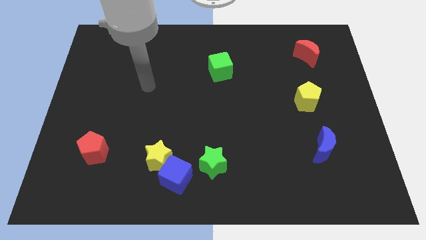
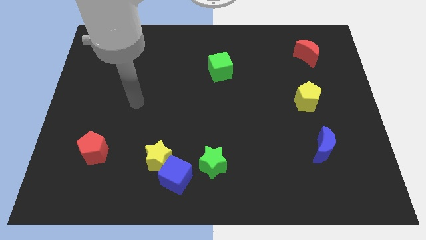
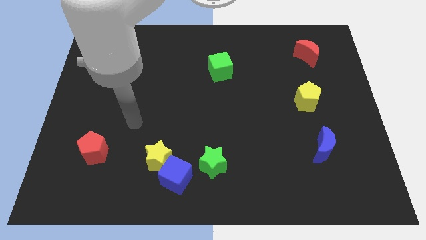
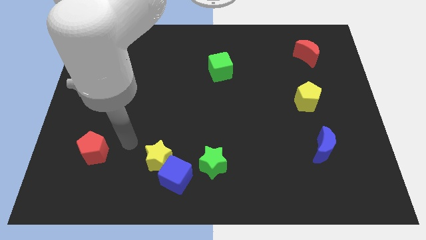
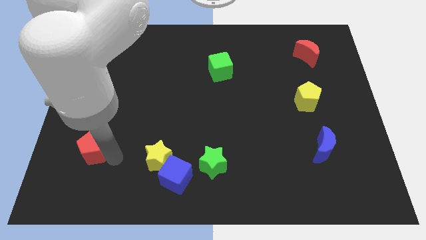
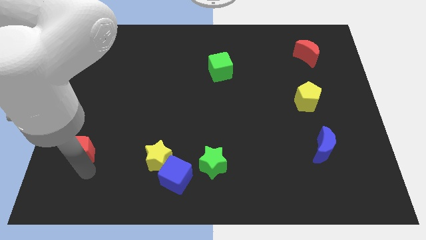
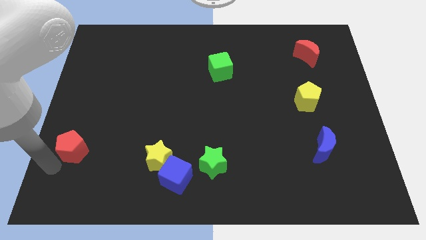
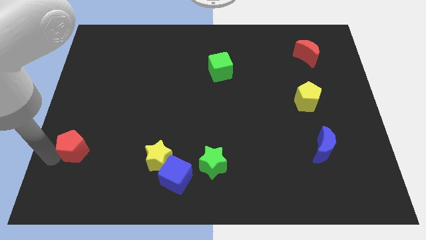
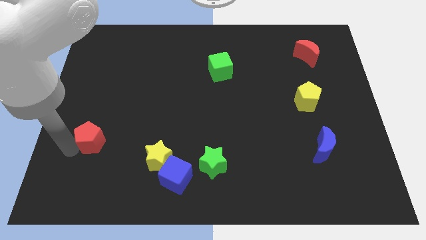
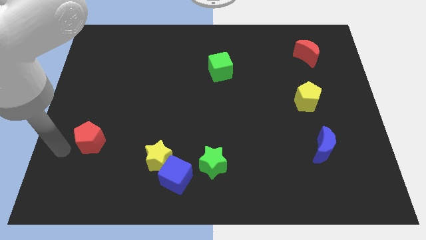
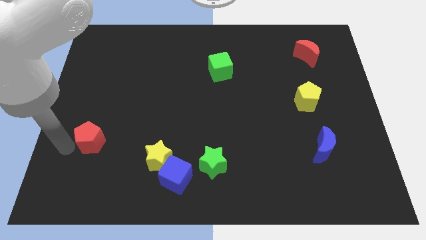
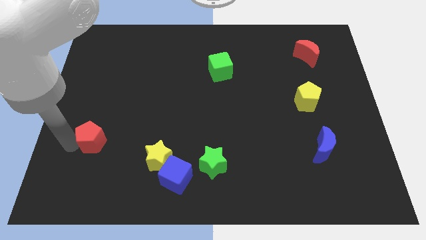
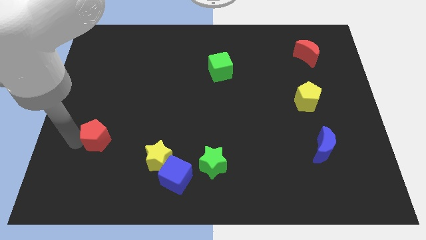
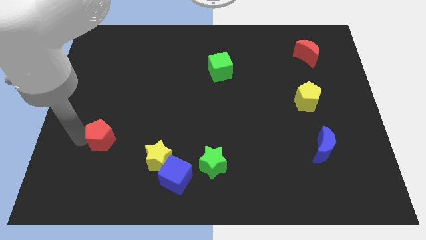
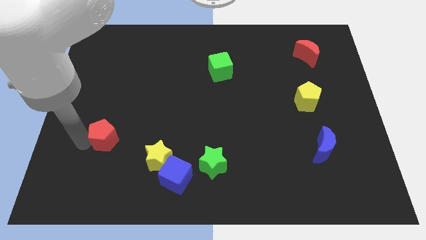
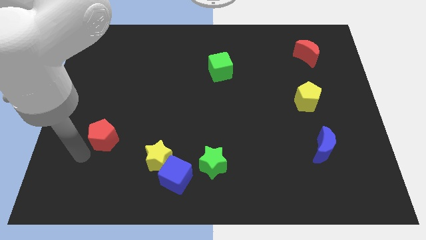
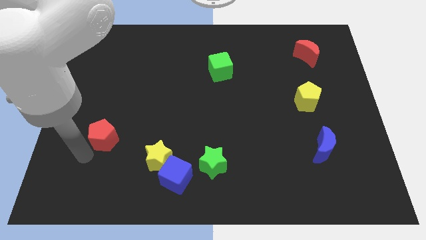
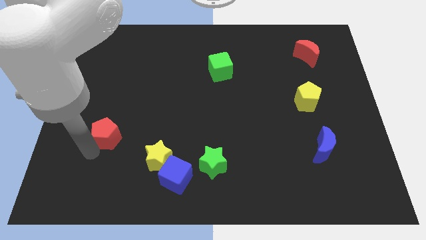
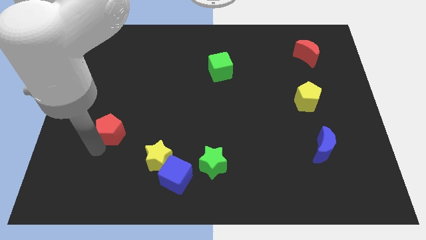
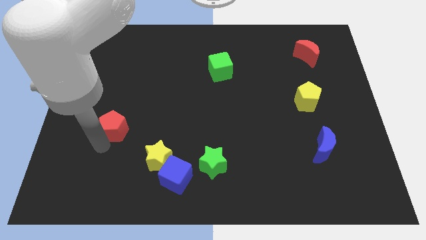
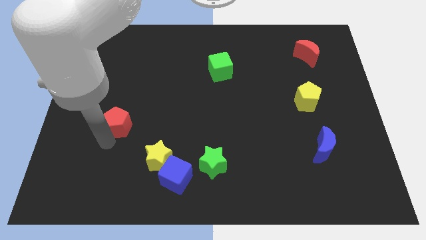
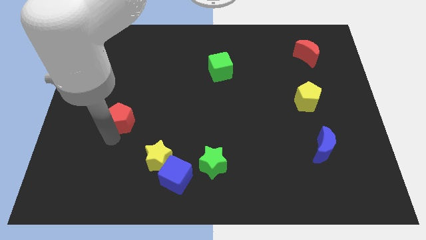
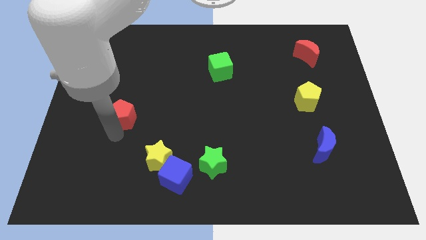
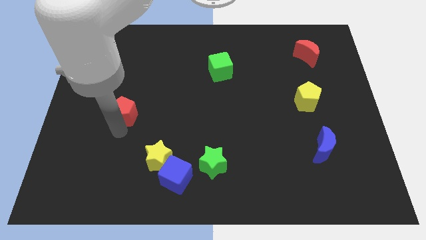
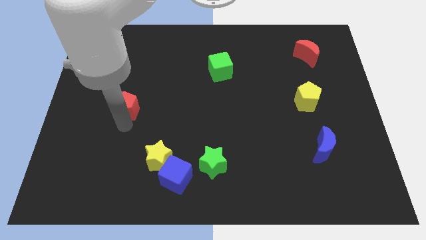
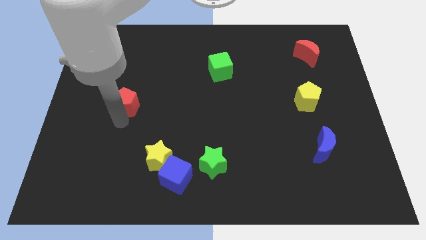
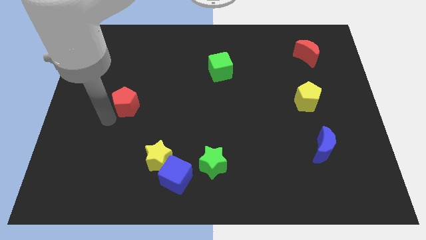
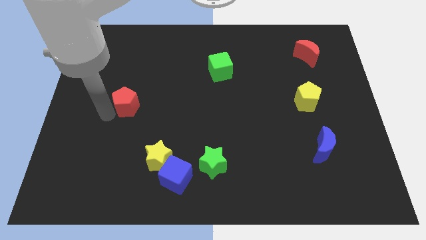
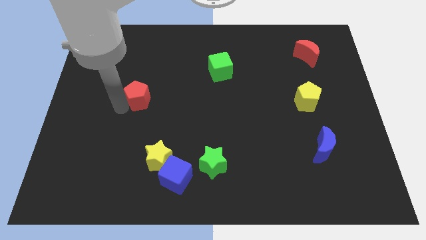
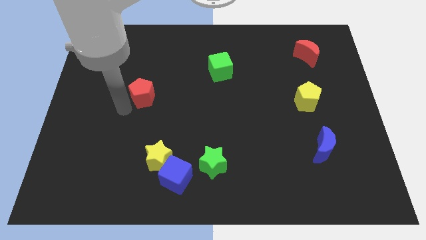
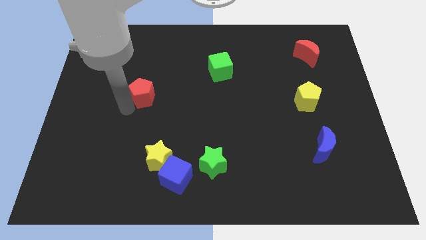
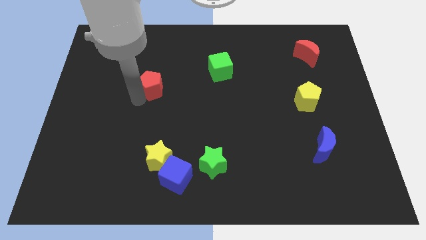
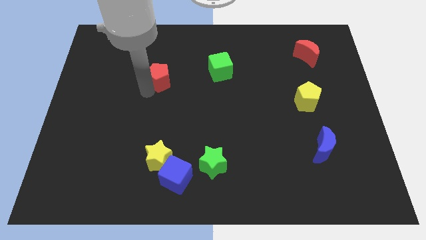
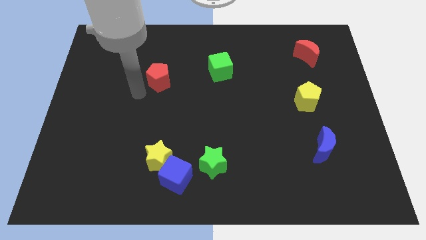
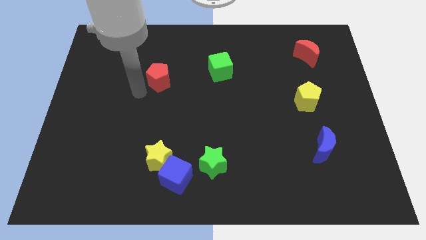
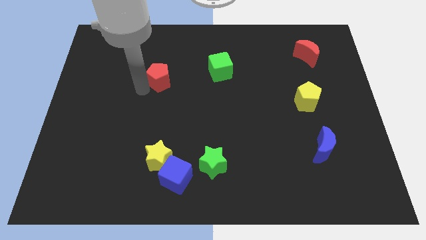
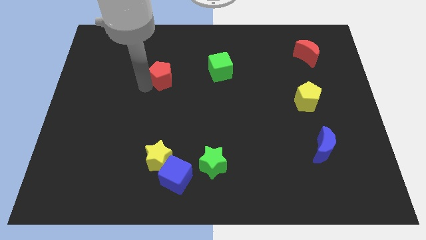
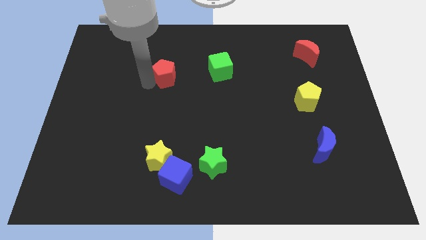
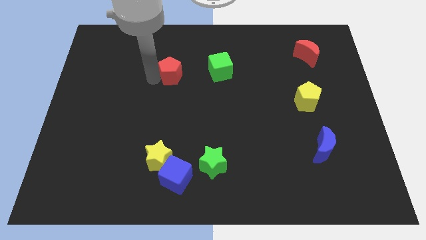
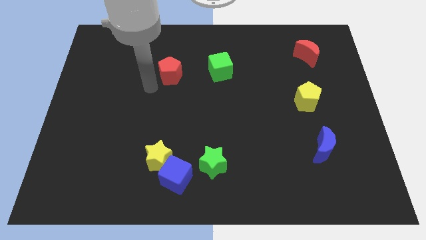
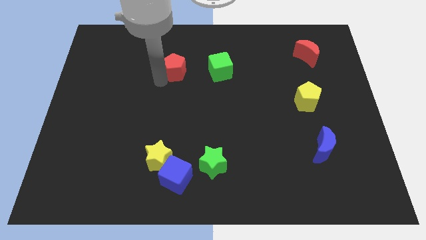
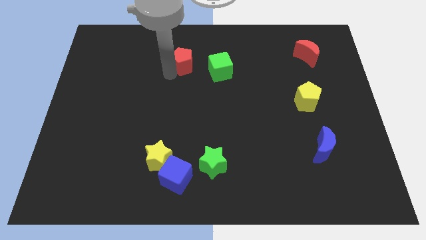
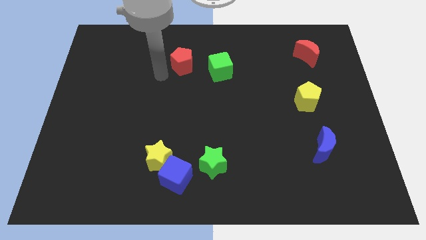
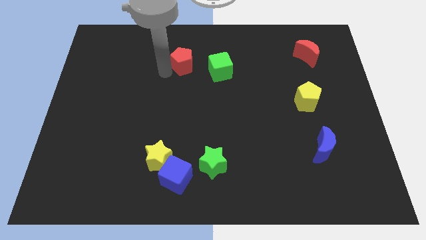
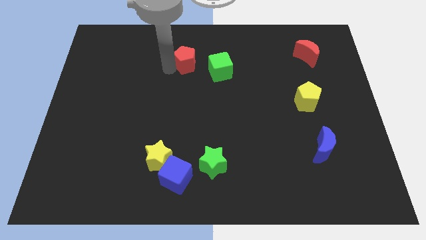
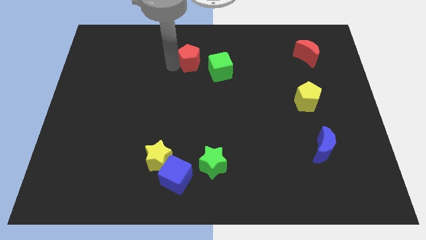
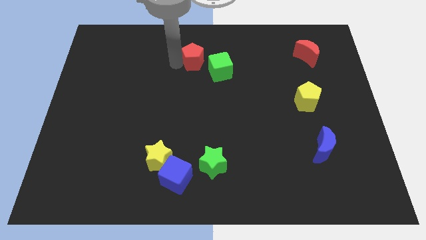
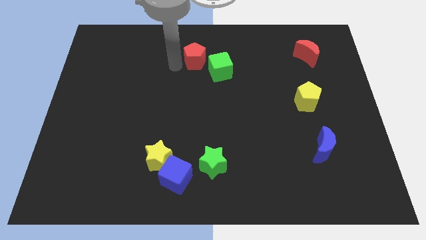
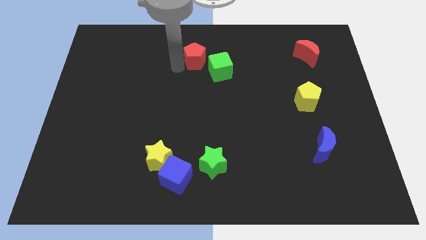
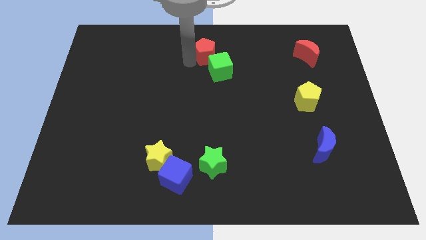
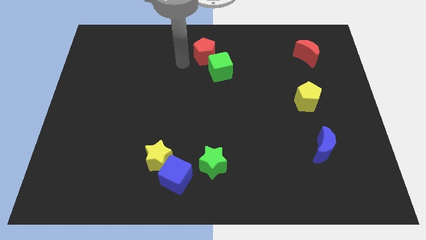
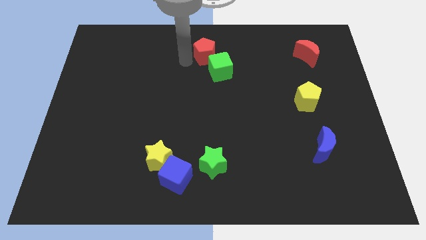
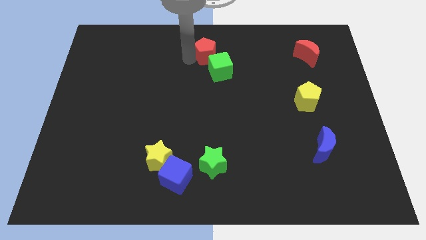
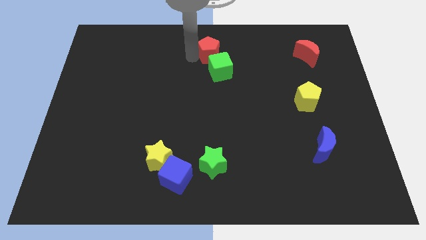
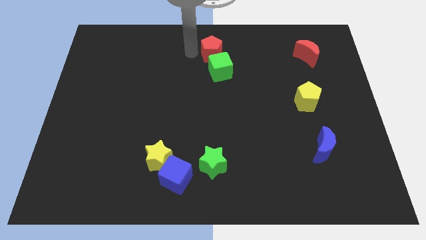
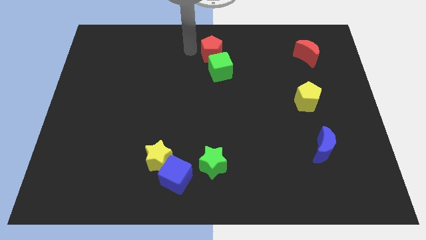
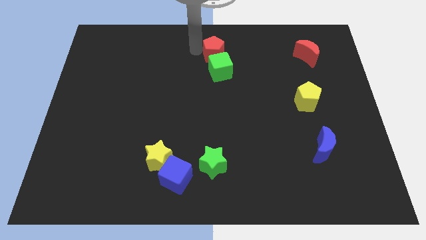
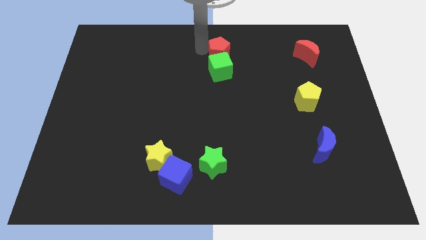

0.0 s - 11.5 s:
push the red pentagon to the top right side of the green cube

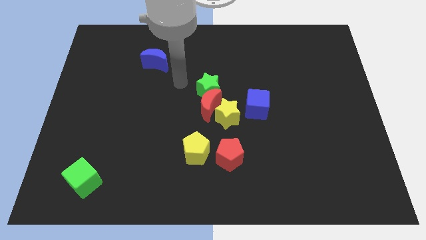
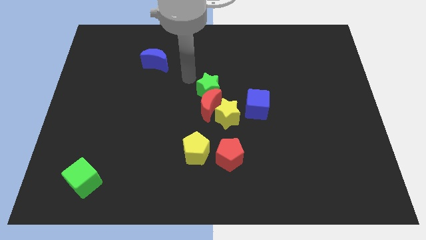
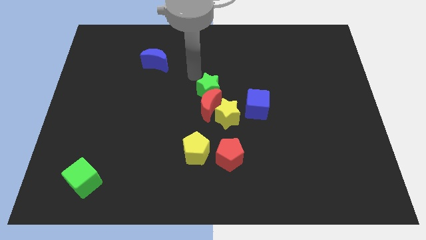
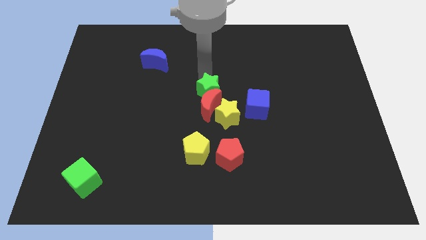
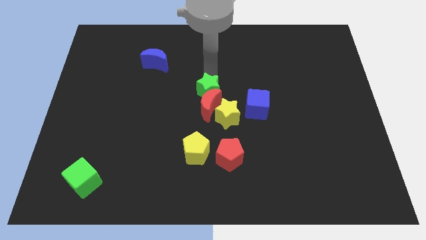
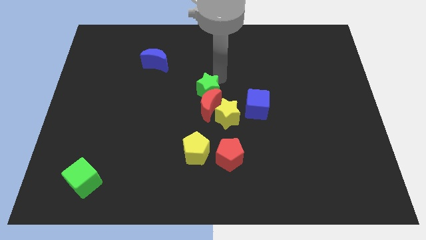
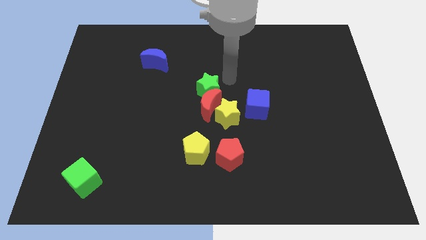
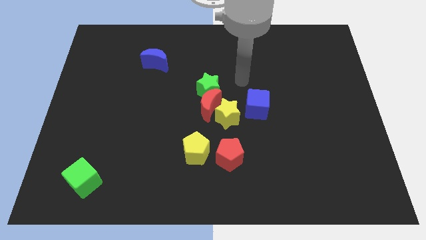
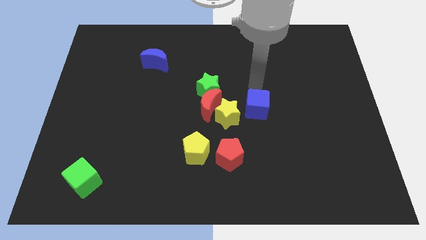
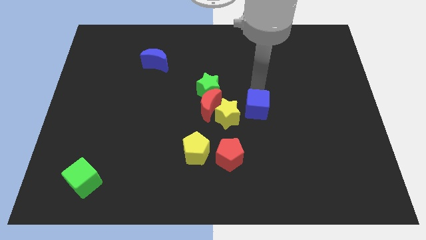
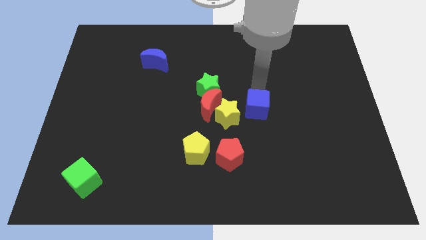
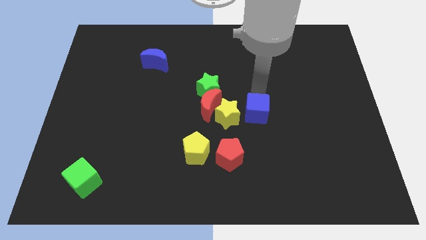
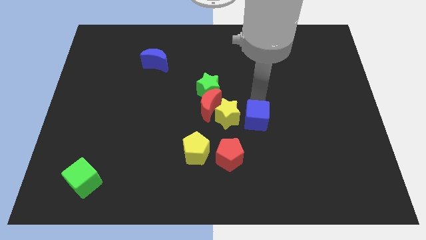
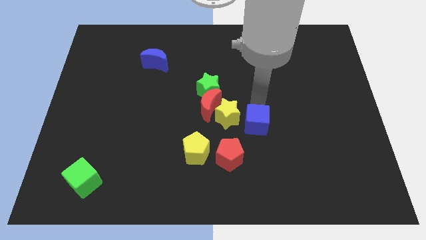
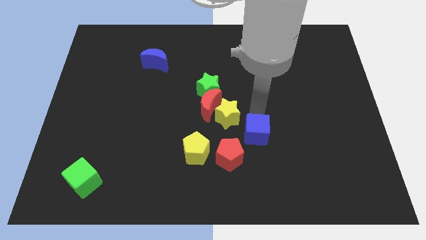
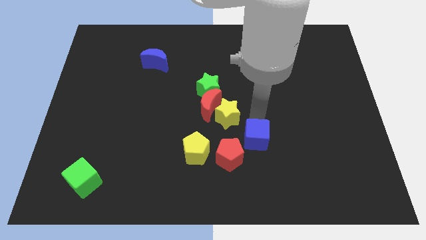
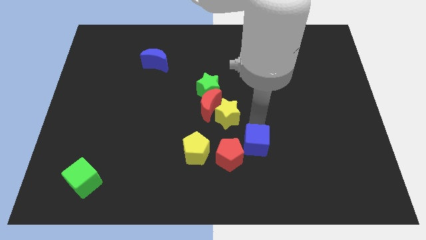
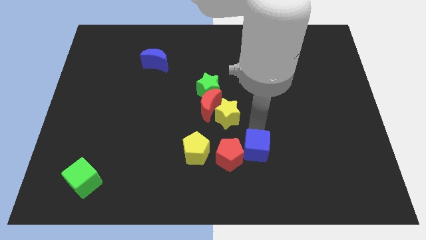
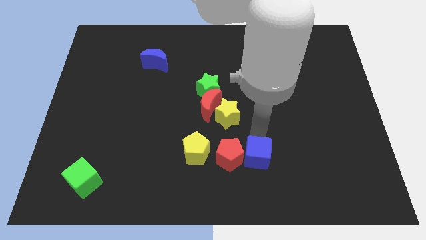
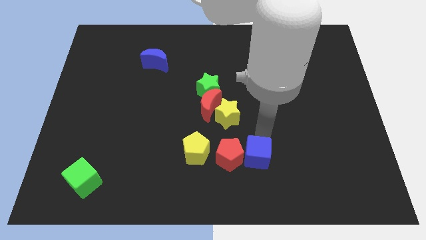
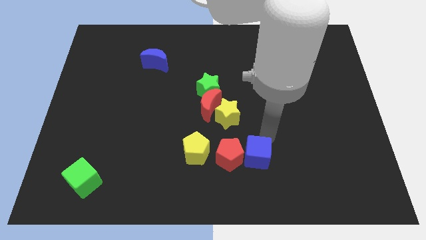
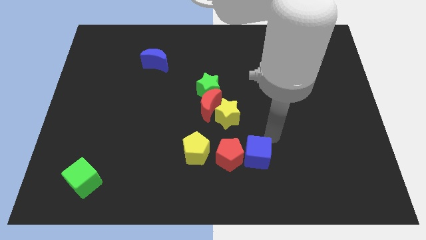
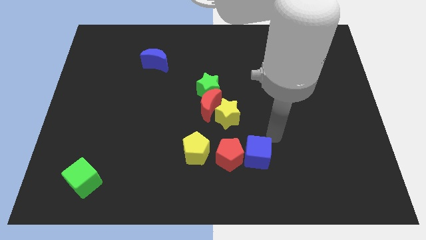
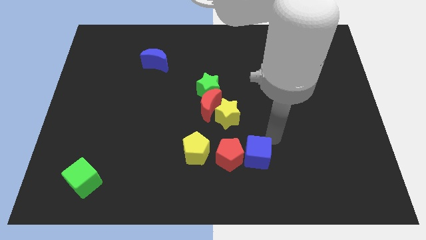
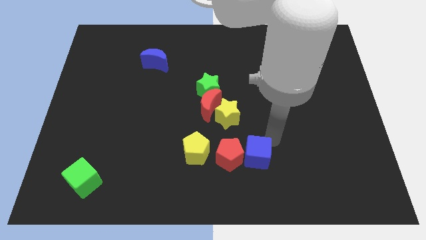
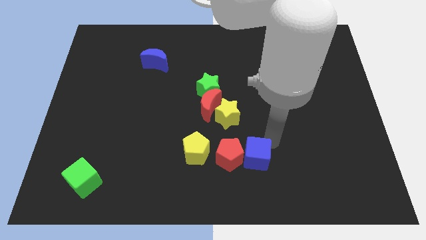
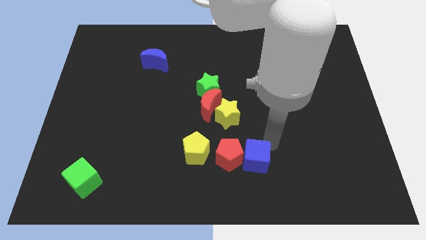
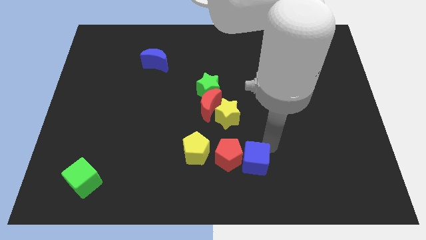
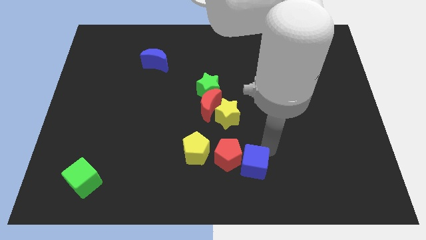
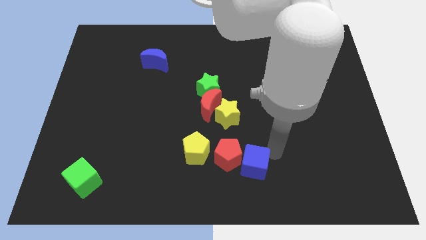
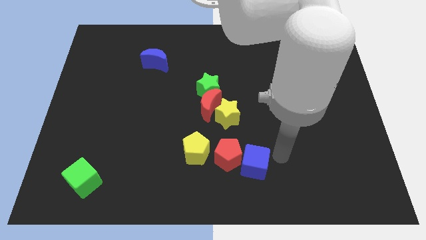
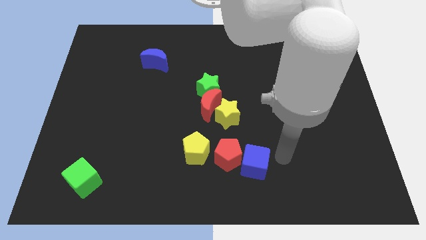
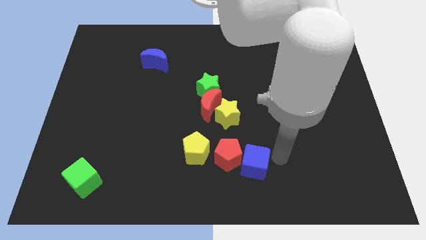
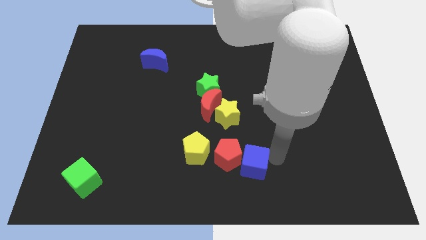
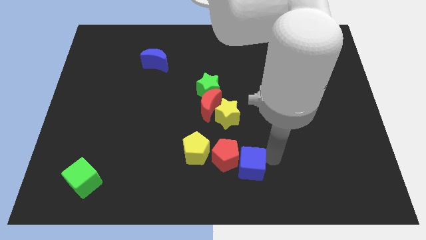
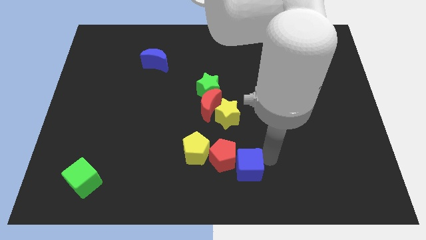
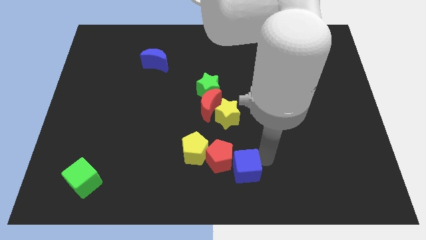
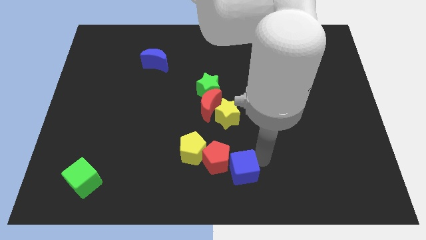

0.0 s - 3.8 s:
slide the blue cube to the bottom right side of the yellow pentagon
